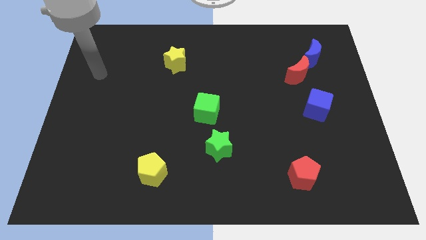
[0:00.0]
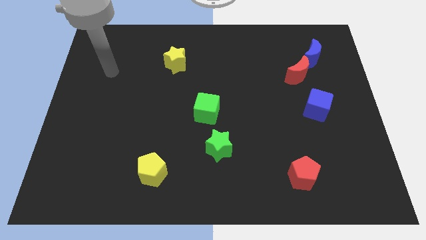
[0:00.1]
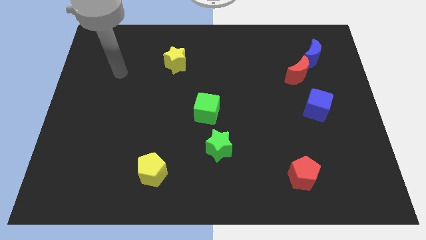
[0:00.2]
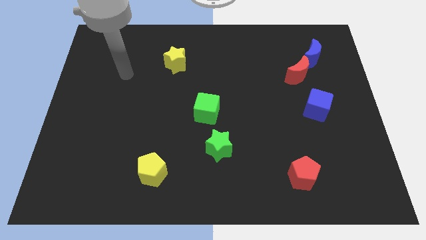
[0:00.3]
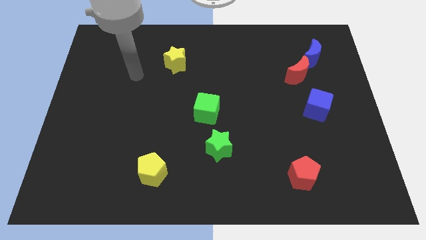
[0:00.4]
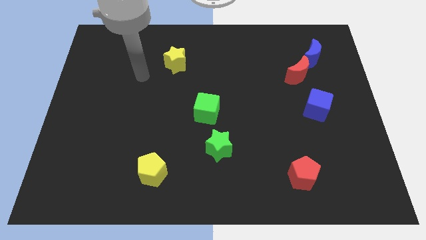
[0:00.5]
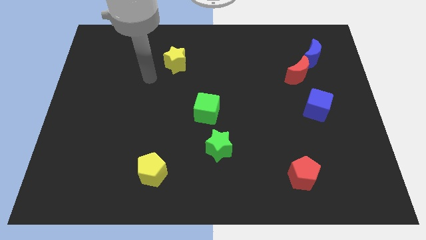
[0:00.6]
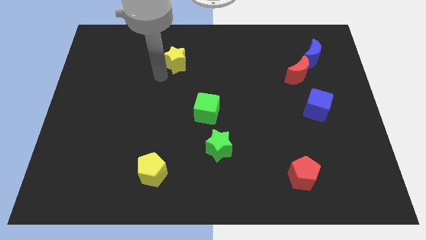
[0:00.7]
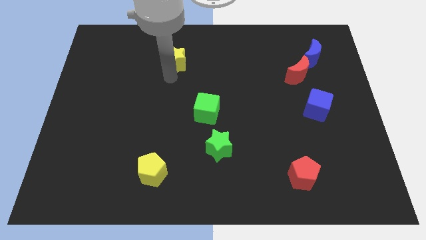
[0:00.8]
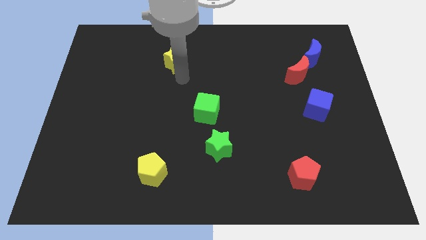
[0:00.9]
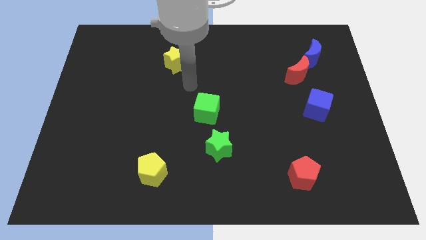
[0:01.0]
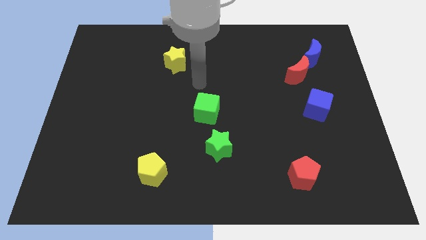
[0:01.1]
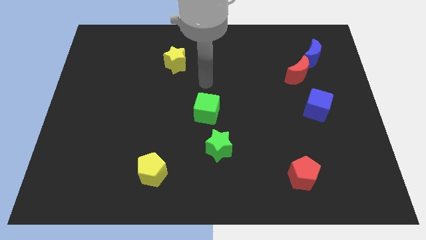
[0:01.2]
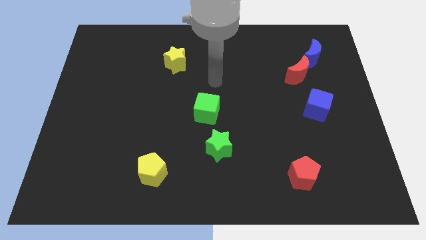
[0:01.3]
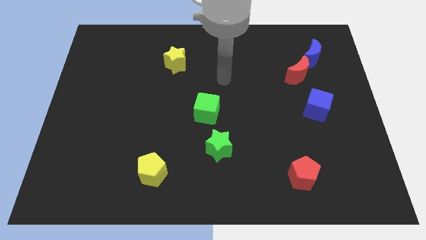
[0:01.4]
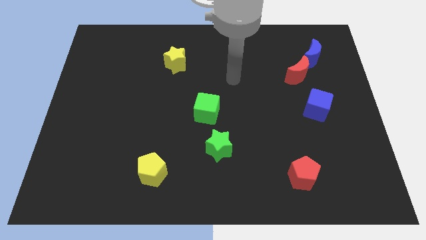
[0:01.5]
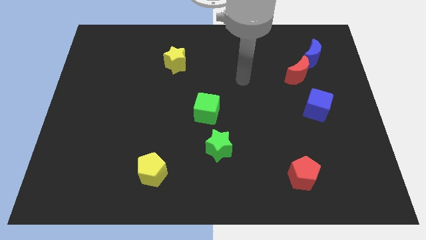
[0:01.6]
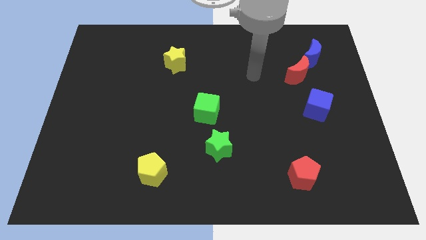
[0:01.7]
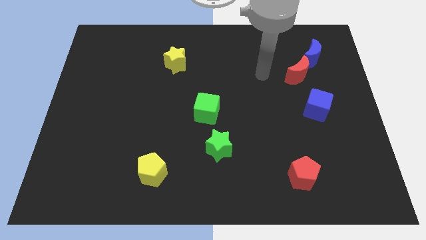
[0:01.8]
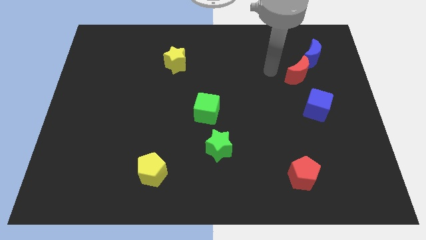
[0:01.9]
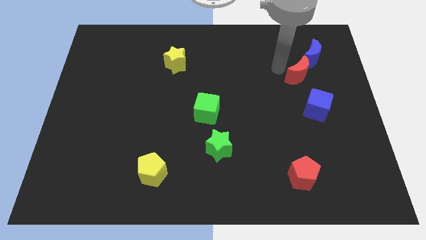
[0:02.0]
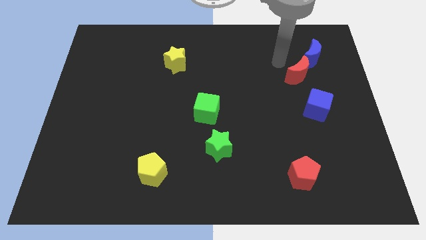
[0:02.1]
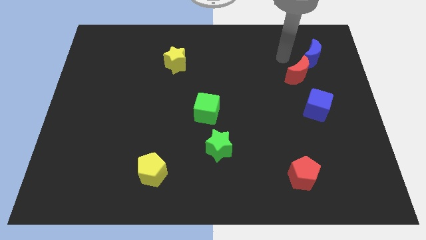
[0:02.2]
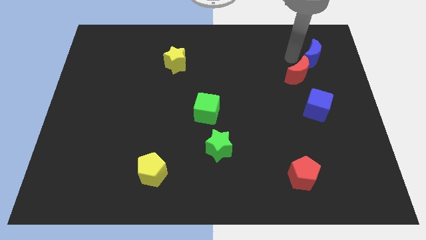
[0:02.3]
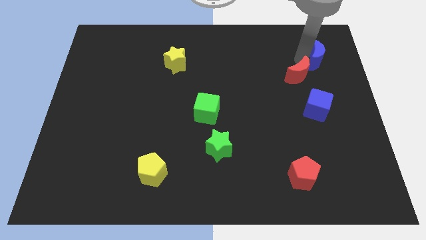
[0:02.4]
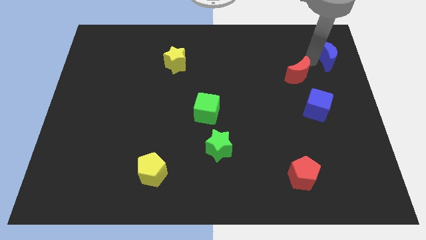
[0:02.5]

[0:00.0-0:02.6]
move the red moon away from the blue moon

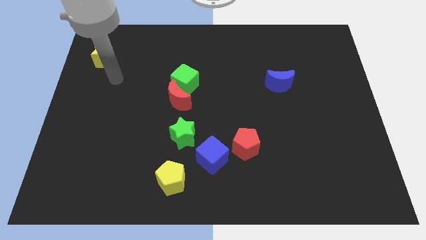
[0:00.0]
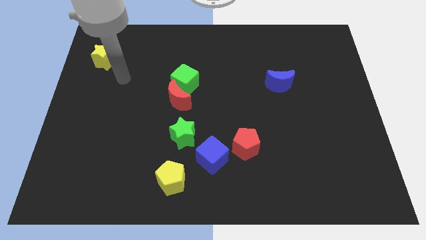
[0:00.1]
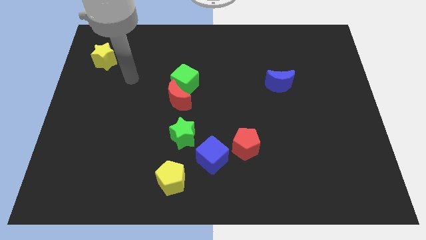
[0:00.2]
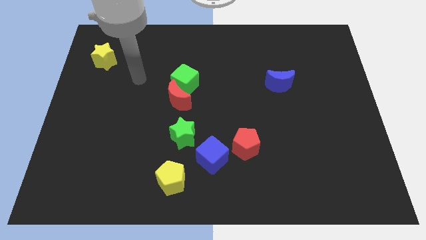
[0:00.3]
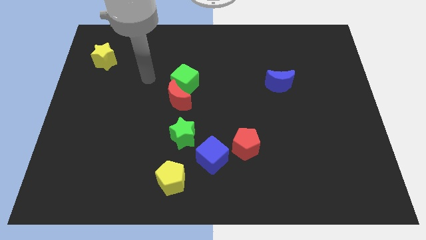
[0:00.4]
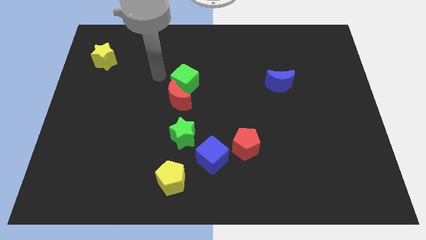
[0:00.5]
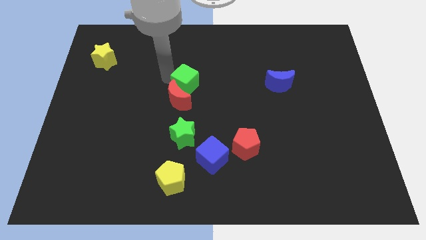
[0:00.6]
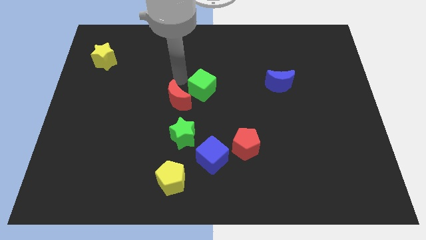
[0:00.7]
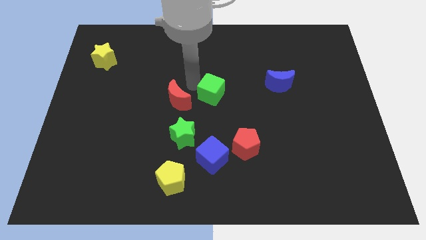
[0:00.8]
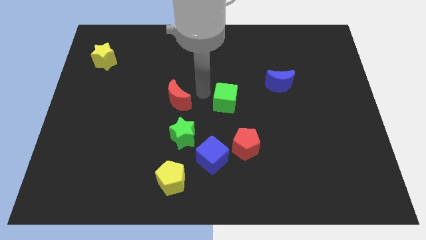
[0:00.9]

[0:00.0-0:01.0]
move the red moon away from the green cube

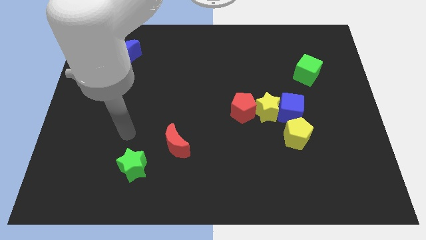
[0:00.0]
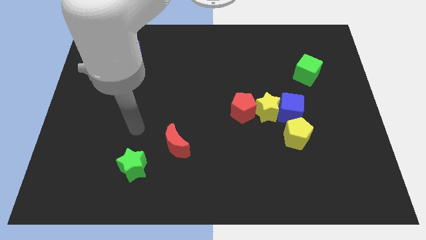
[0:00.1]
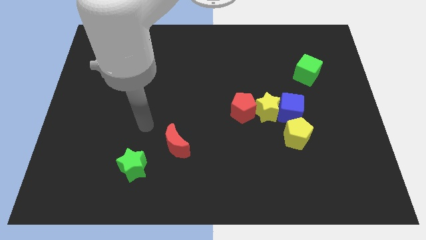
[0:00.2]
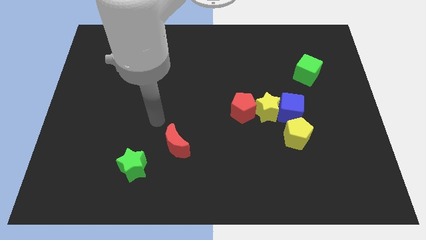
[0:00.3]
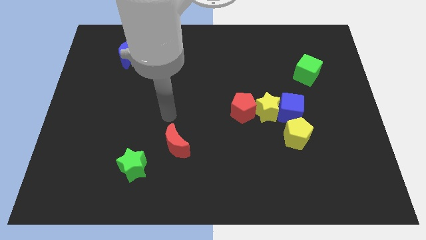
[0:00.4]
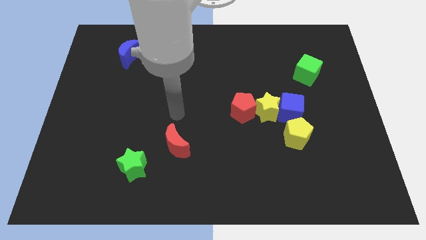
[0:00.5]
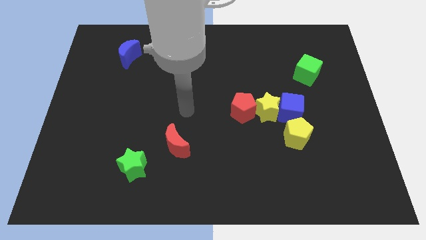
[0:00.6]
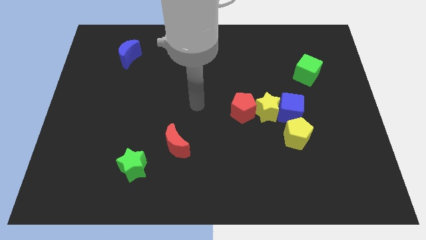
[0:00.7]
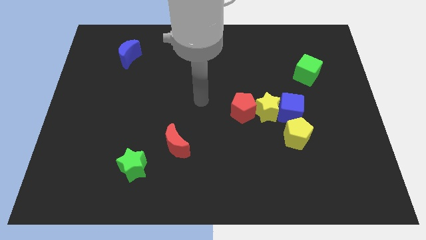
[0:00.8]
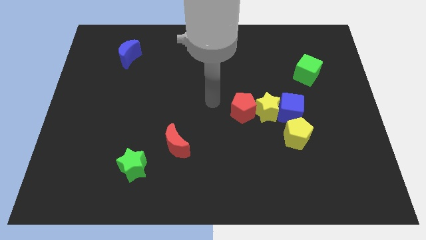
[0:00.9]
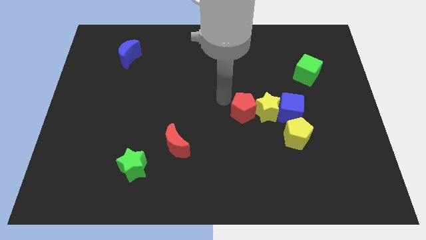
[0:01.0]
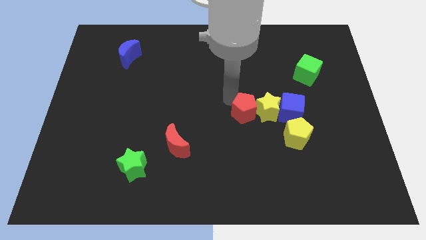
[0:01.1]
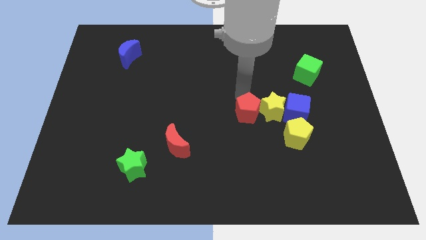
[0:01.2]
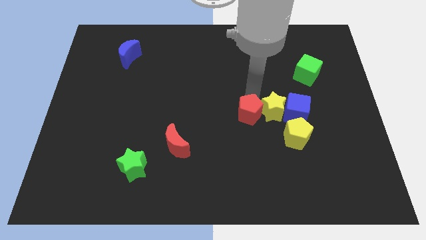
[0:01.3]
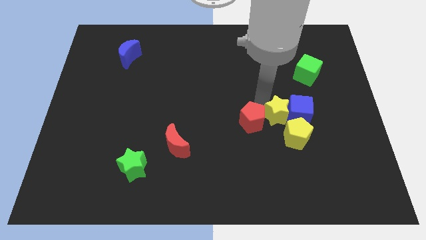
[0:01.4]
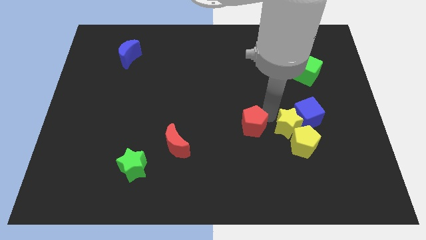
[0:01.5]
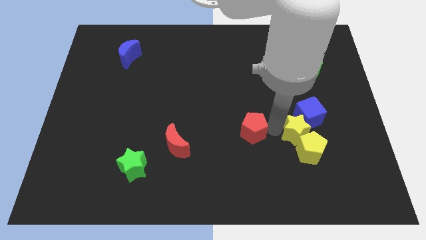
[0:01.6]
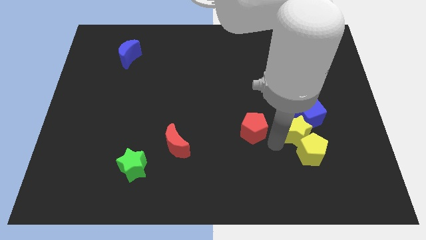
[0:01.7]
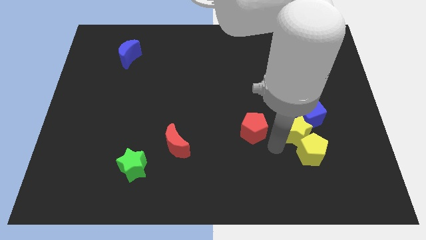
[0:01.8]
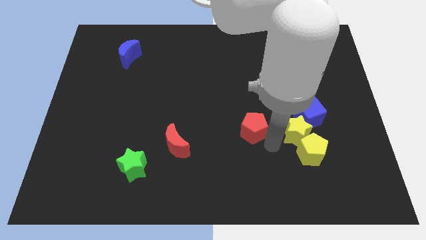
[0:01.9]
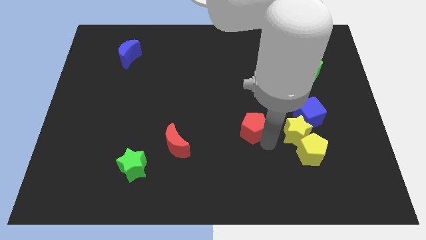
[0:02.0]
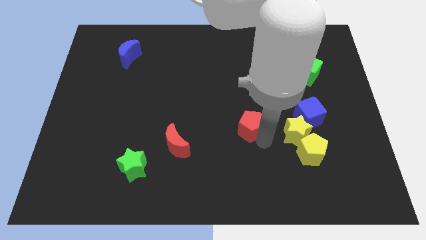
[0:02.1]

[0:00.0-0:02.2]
pull the red pentagon apart from the yellow star

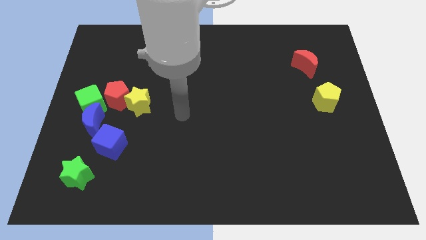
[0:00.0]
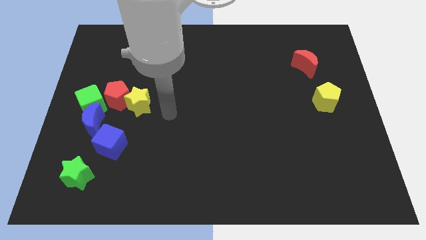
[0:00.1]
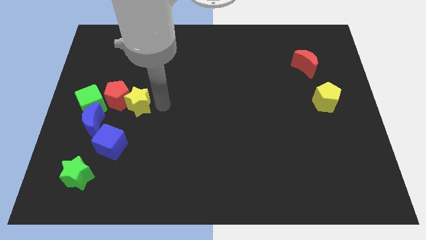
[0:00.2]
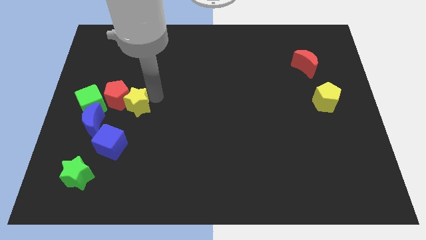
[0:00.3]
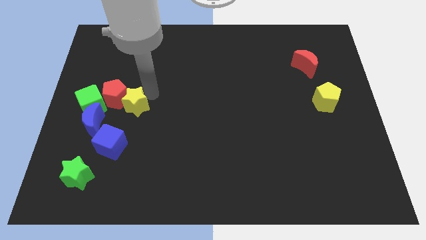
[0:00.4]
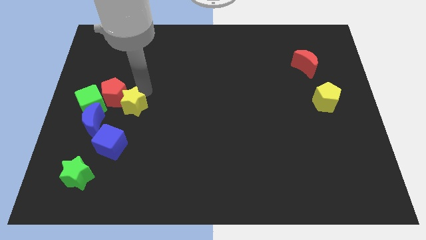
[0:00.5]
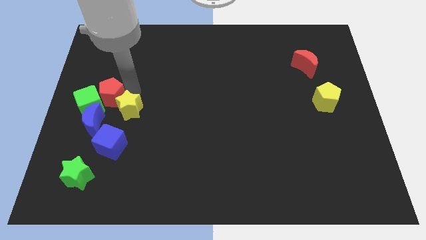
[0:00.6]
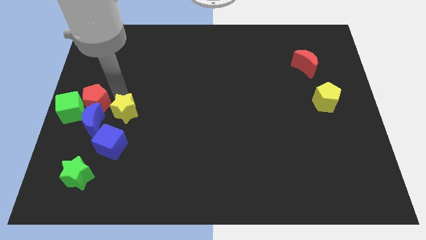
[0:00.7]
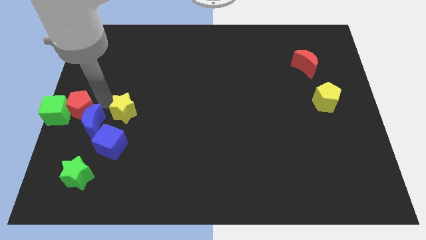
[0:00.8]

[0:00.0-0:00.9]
pull the yellow star apart from the red pentagon

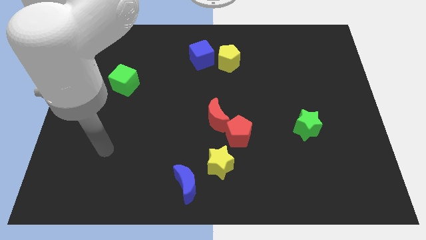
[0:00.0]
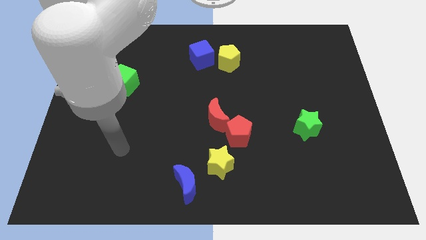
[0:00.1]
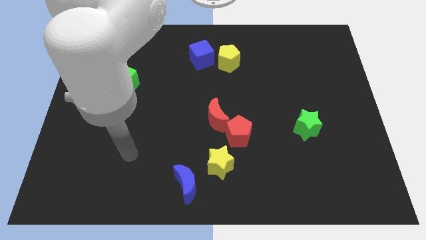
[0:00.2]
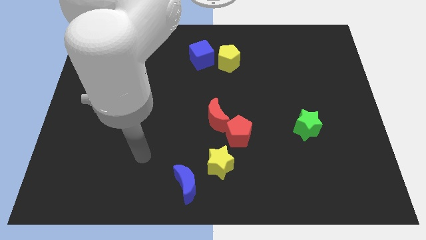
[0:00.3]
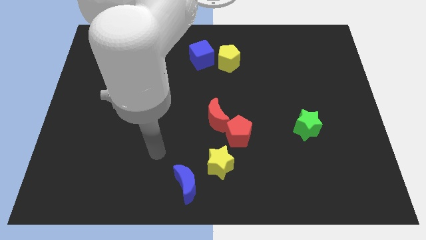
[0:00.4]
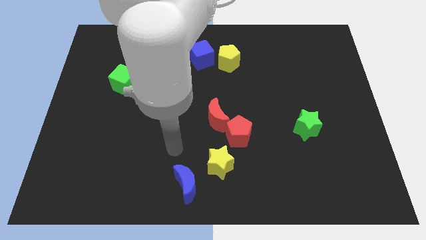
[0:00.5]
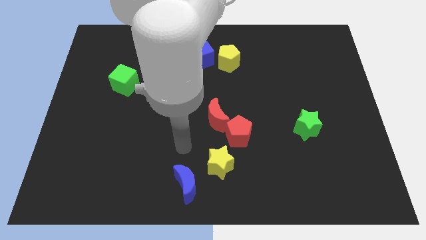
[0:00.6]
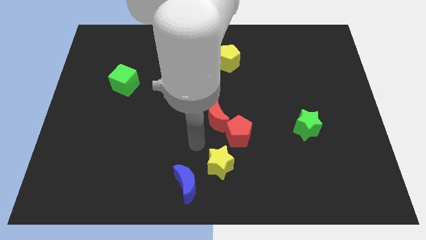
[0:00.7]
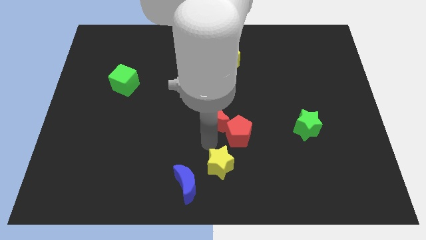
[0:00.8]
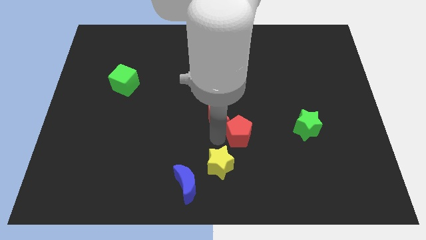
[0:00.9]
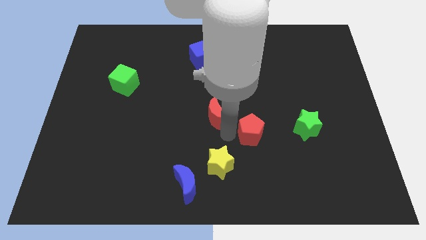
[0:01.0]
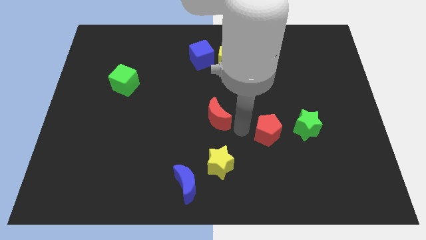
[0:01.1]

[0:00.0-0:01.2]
separate the red moon from the red pentagon

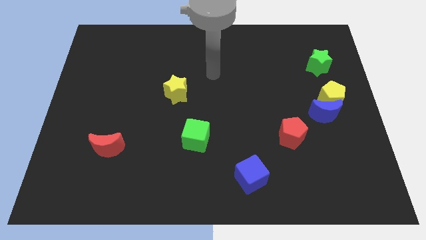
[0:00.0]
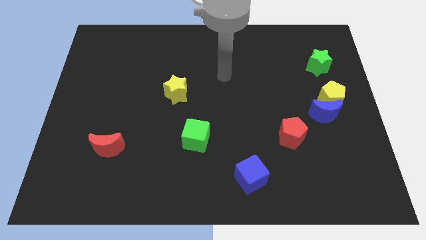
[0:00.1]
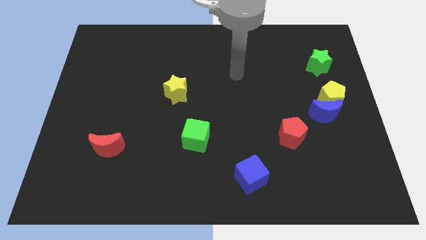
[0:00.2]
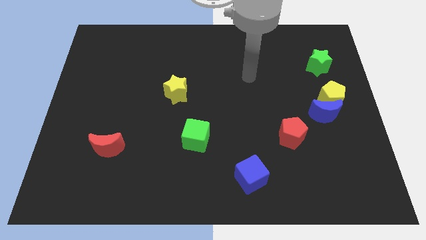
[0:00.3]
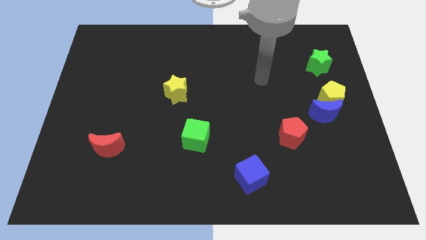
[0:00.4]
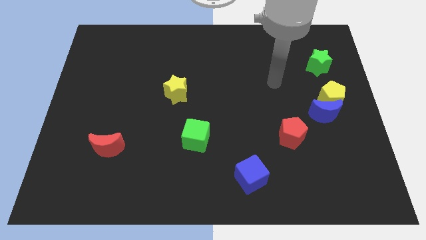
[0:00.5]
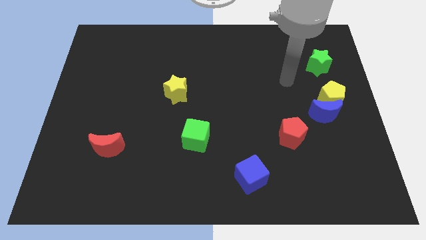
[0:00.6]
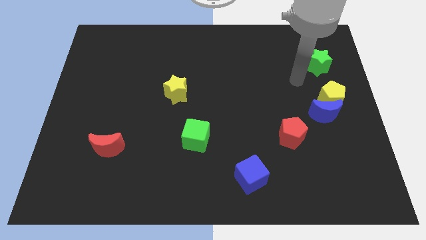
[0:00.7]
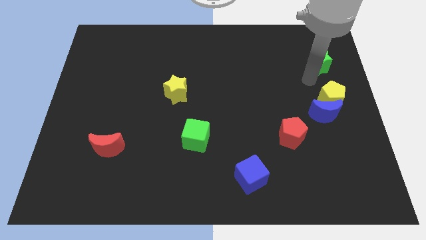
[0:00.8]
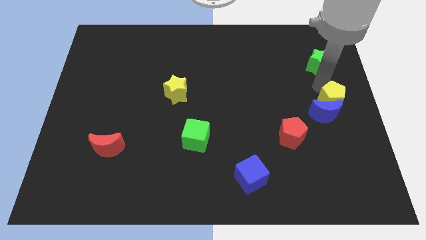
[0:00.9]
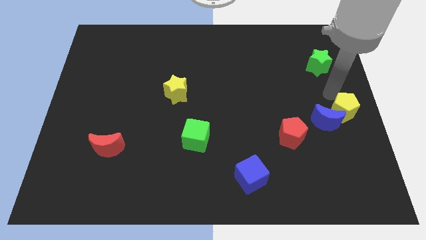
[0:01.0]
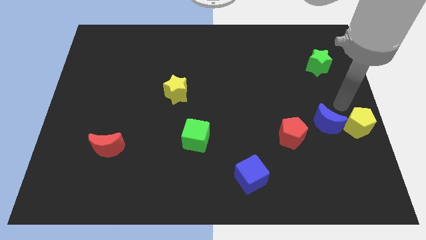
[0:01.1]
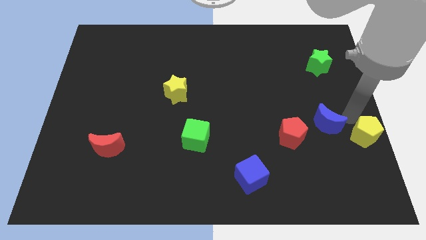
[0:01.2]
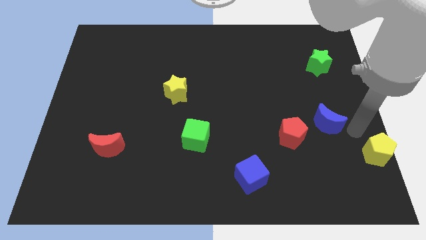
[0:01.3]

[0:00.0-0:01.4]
pull the blue moon apart from the yellow pentagon

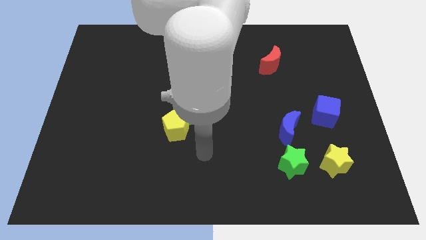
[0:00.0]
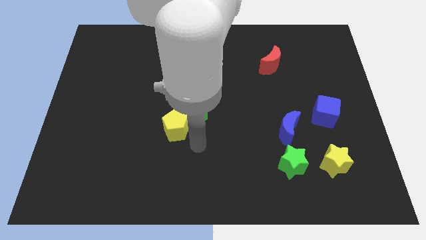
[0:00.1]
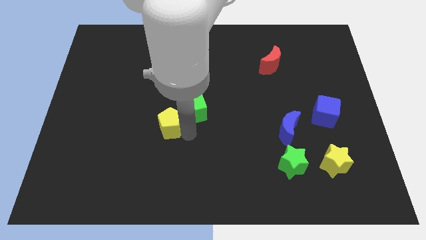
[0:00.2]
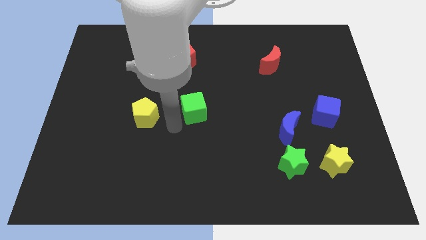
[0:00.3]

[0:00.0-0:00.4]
move the green cube away from the yellow pentagon
